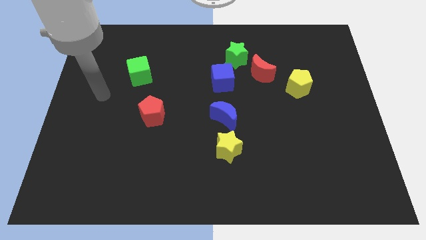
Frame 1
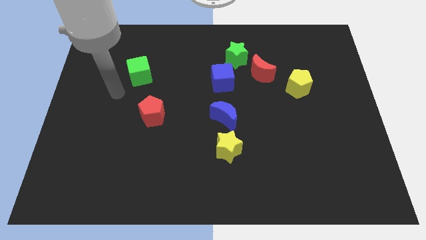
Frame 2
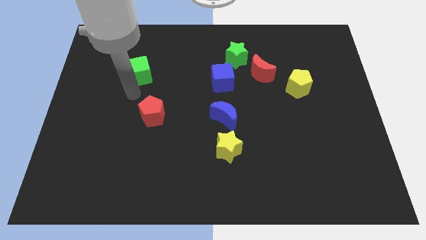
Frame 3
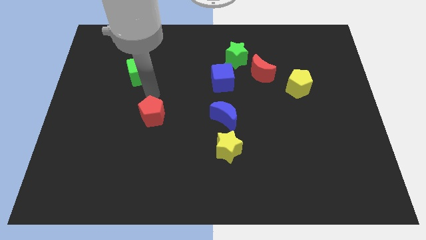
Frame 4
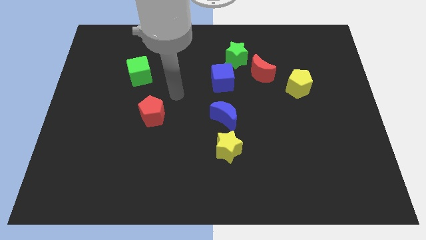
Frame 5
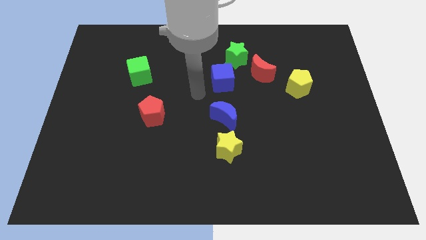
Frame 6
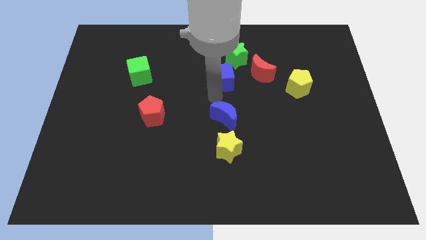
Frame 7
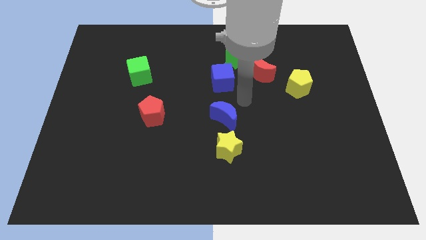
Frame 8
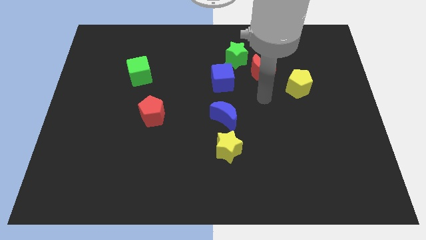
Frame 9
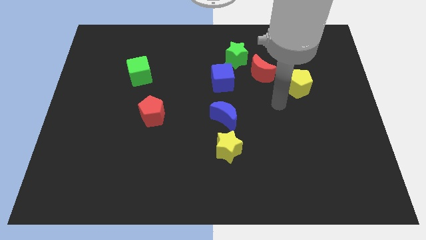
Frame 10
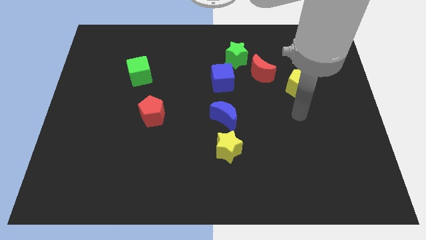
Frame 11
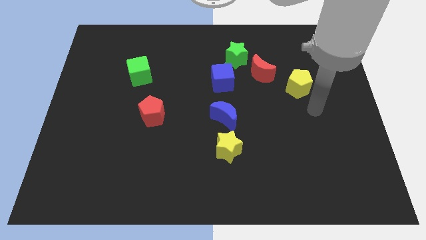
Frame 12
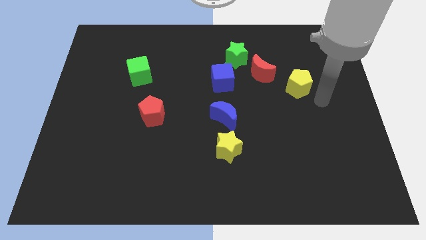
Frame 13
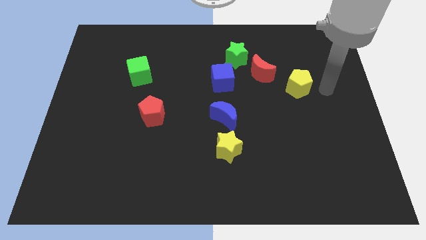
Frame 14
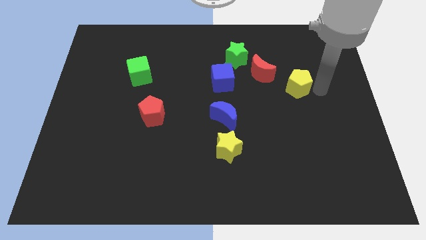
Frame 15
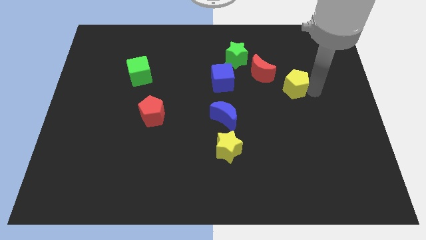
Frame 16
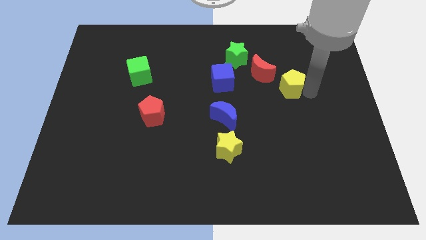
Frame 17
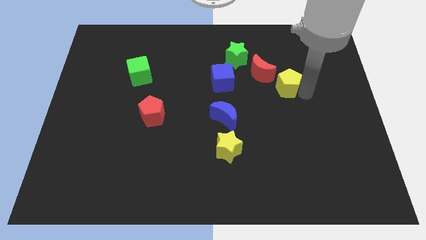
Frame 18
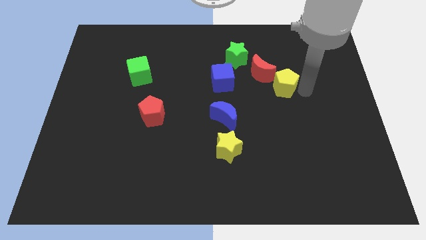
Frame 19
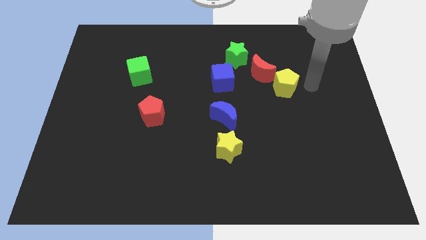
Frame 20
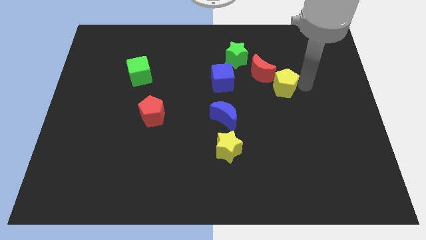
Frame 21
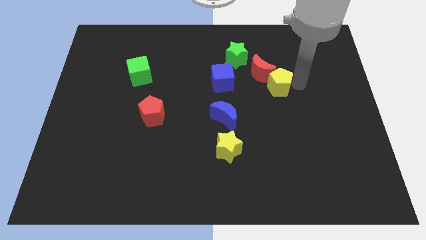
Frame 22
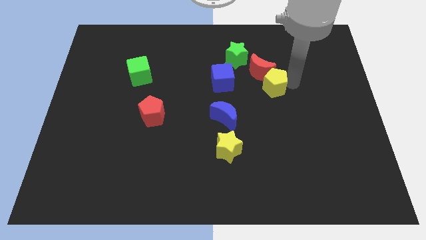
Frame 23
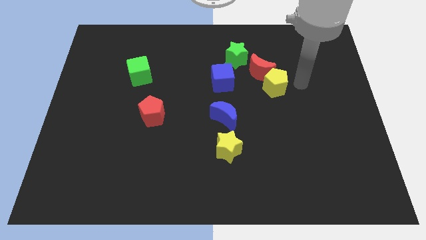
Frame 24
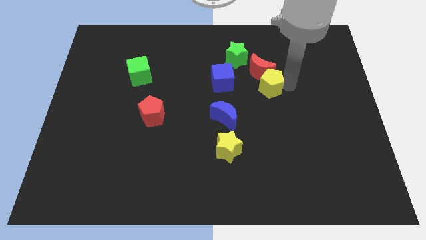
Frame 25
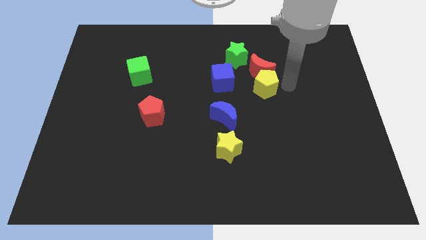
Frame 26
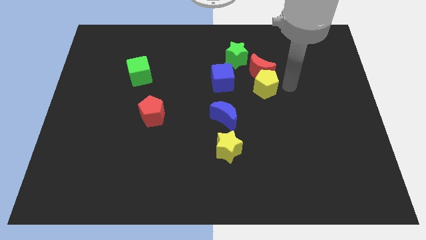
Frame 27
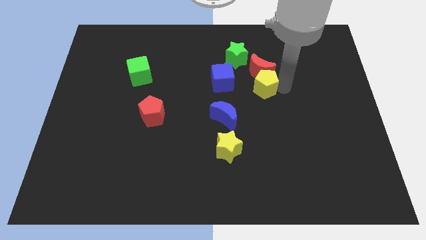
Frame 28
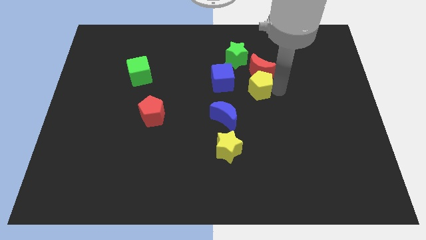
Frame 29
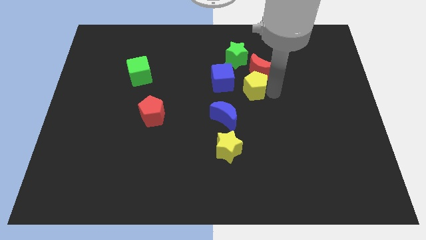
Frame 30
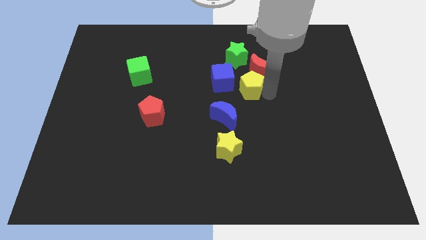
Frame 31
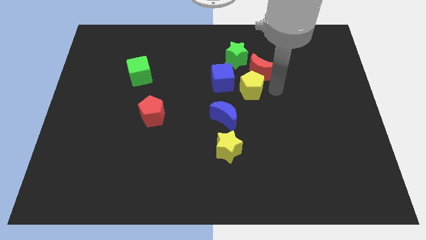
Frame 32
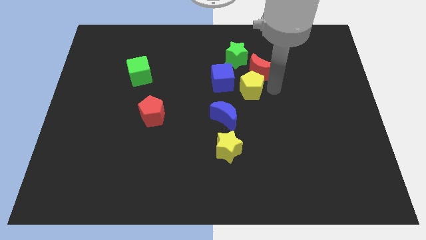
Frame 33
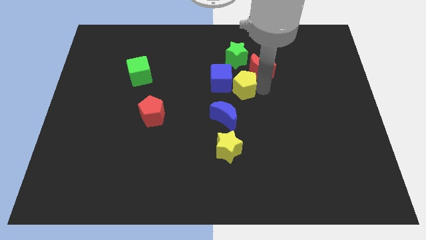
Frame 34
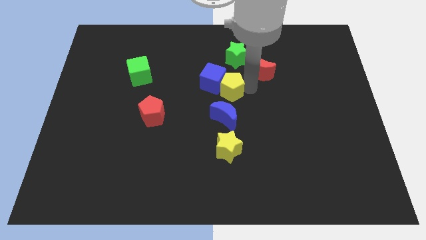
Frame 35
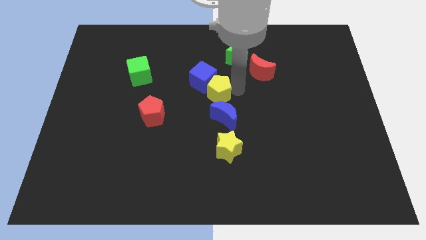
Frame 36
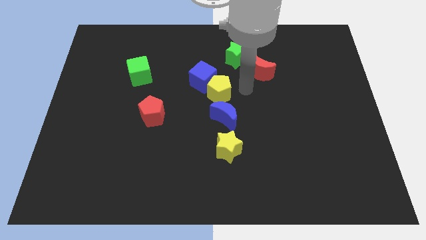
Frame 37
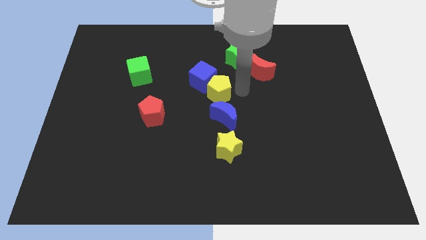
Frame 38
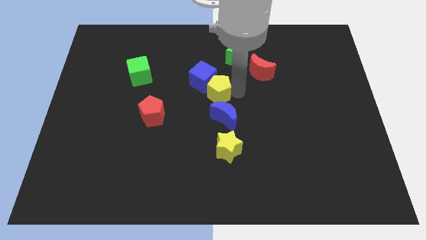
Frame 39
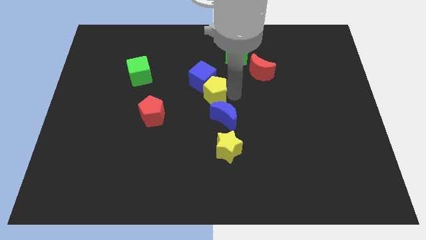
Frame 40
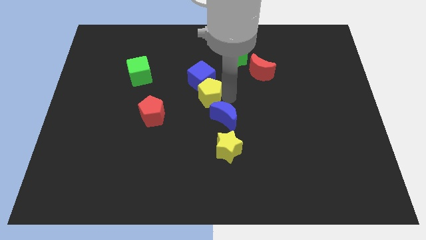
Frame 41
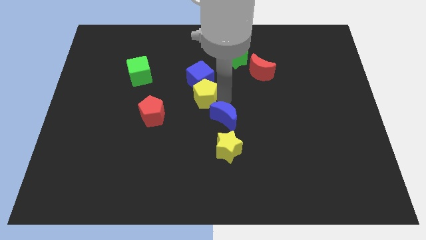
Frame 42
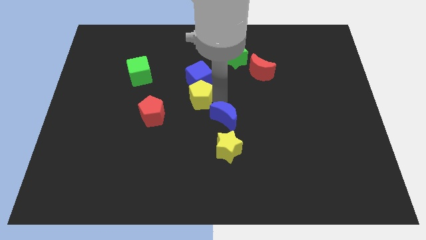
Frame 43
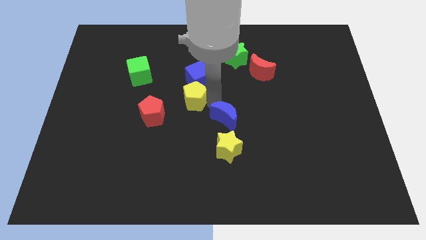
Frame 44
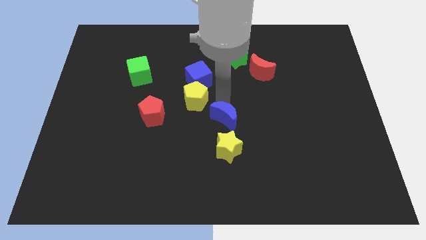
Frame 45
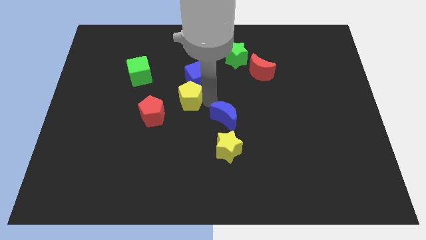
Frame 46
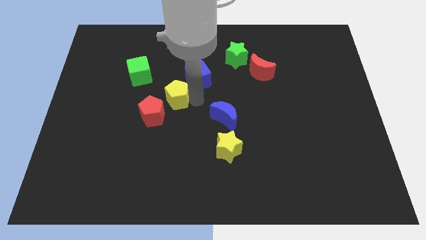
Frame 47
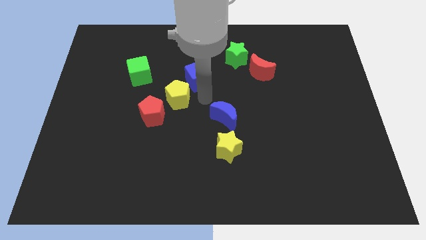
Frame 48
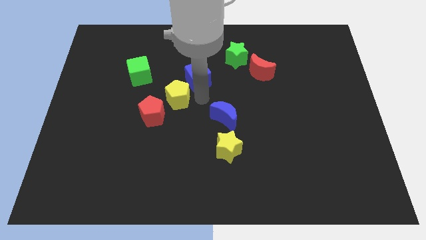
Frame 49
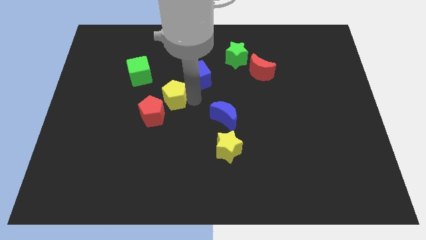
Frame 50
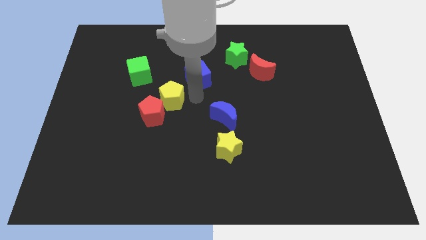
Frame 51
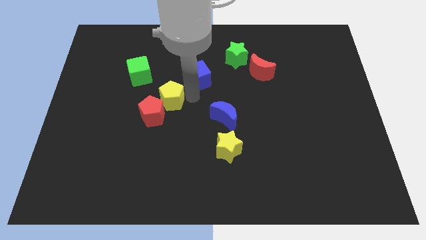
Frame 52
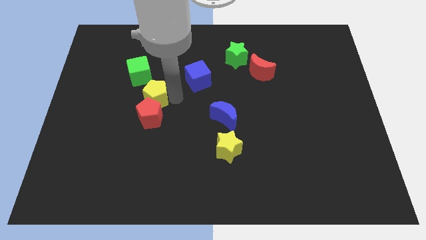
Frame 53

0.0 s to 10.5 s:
move the yellow pentagon to the bottom side of the green cube

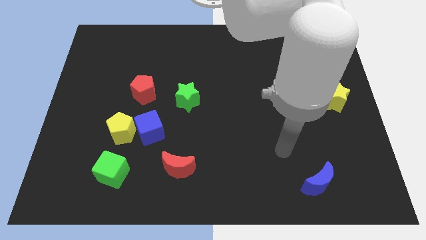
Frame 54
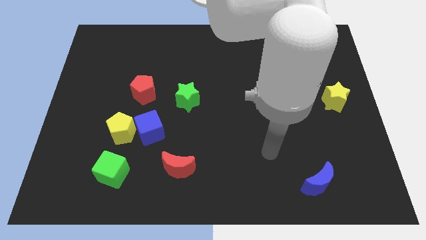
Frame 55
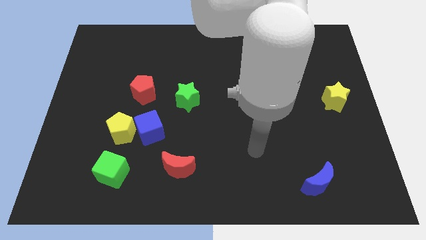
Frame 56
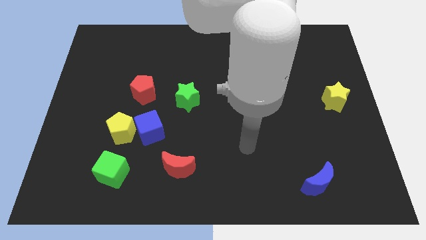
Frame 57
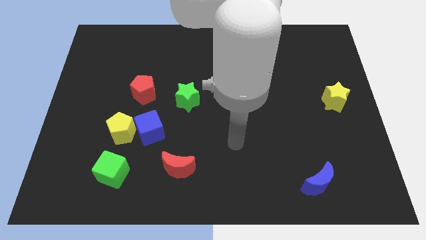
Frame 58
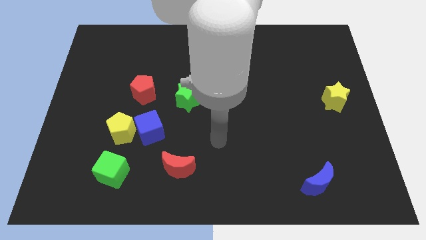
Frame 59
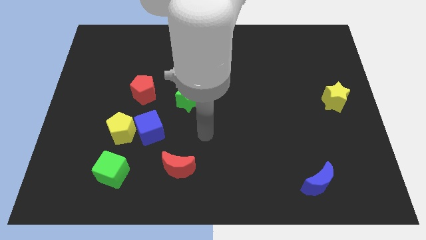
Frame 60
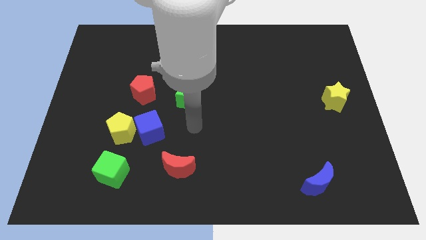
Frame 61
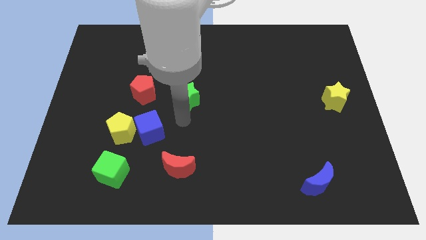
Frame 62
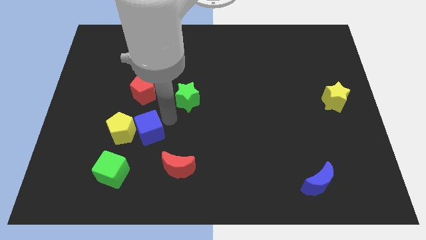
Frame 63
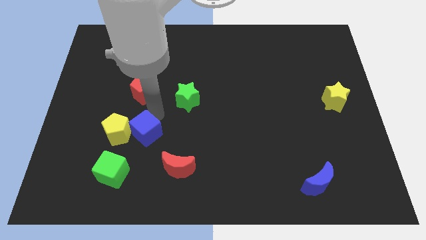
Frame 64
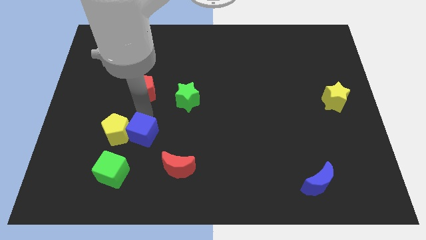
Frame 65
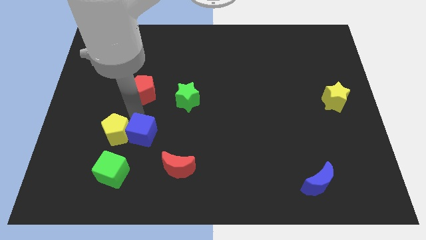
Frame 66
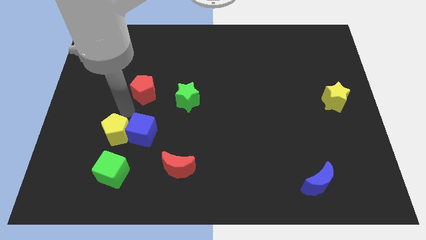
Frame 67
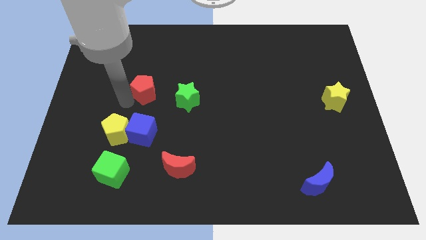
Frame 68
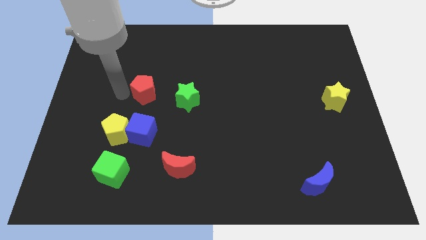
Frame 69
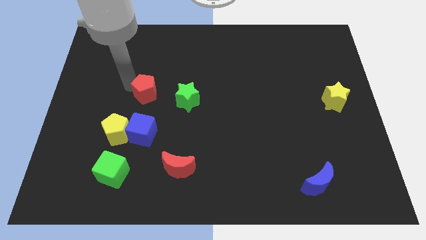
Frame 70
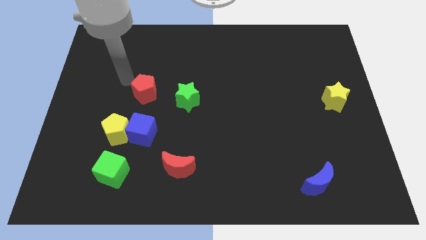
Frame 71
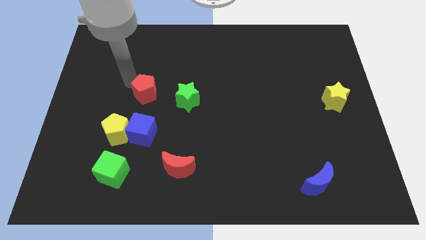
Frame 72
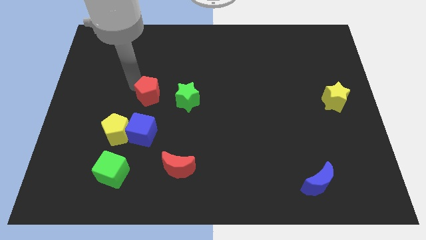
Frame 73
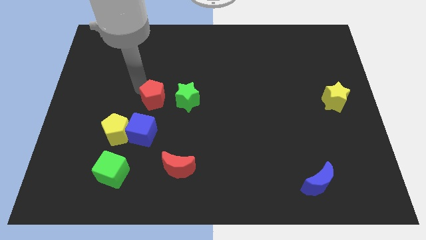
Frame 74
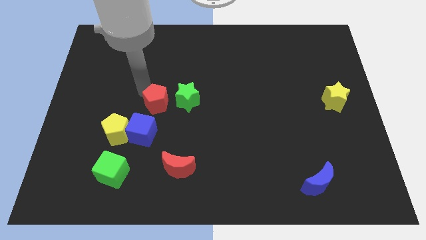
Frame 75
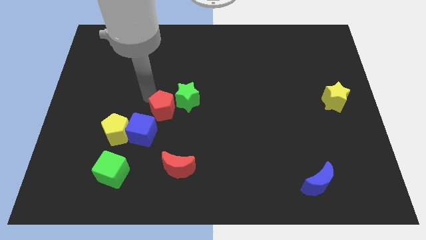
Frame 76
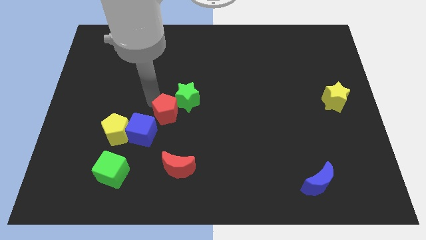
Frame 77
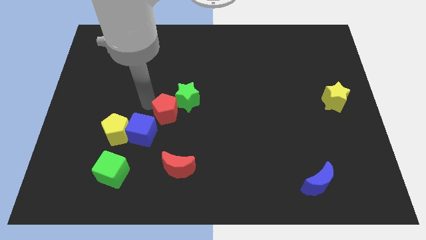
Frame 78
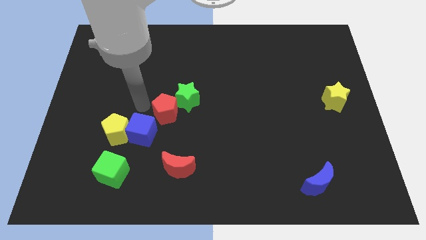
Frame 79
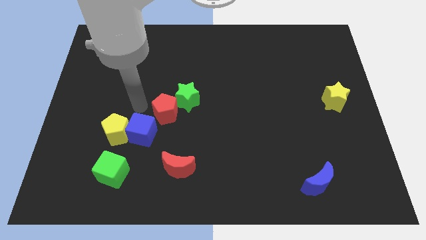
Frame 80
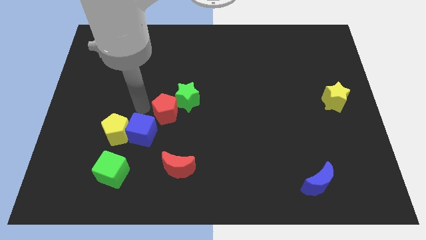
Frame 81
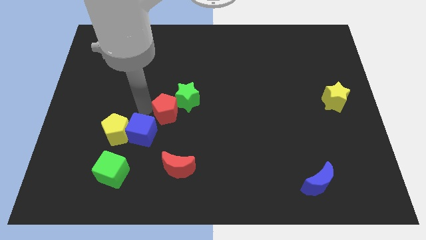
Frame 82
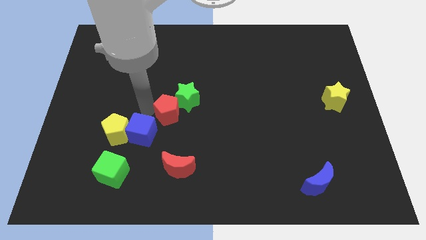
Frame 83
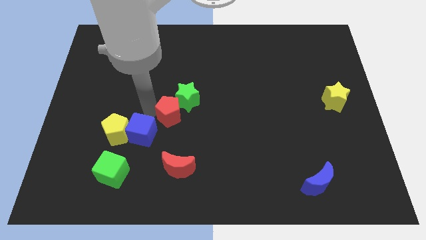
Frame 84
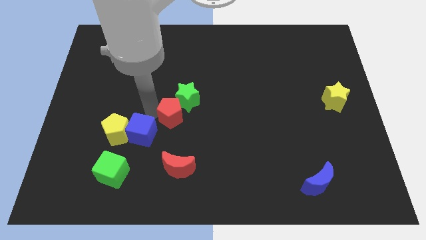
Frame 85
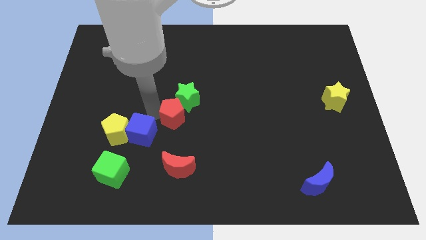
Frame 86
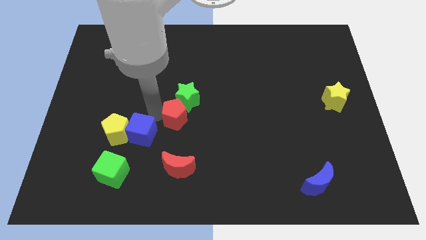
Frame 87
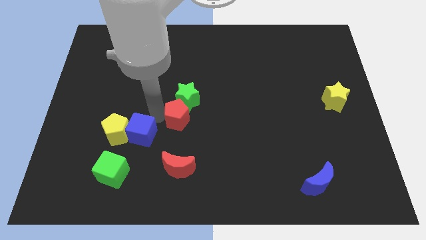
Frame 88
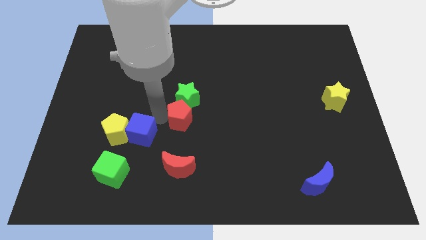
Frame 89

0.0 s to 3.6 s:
slide the red pentagon diagonally down and to the right of the green star
